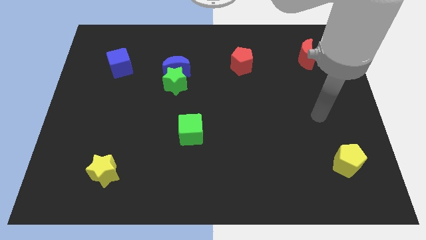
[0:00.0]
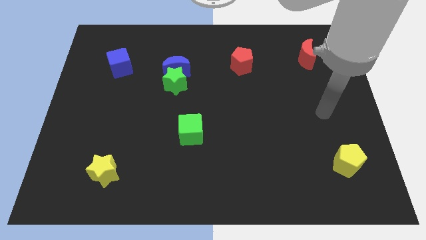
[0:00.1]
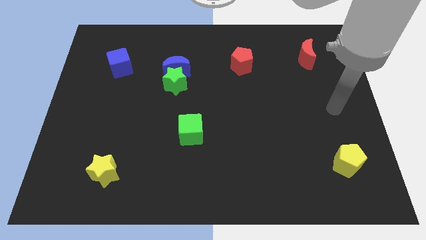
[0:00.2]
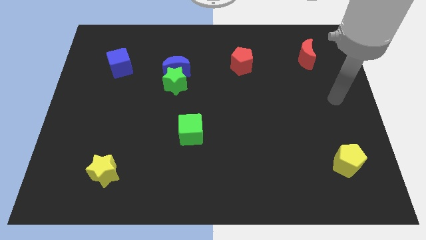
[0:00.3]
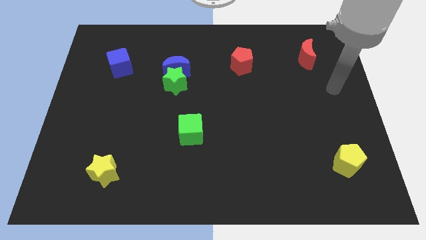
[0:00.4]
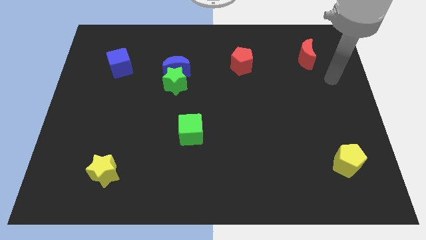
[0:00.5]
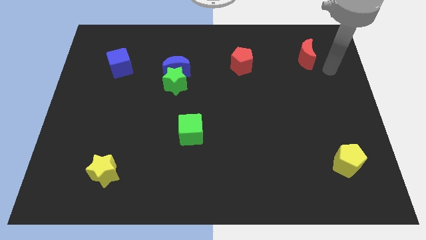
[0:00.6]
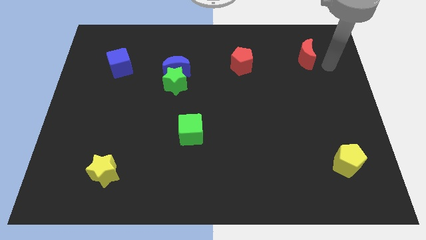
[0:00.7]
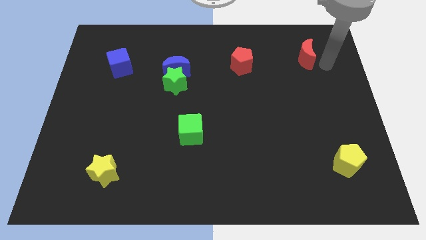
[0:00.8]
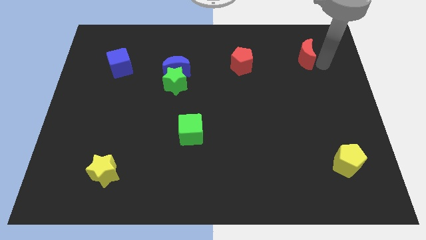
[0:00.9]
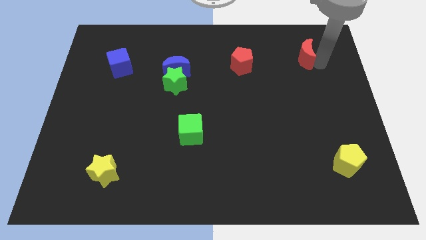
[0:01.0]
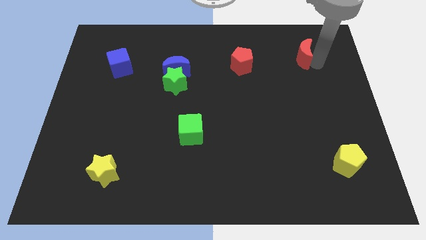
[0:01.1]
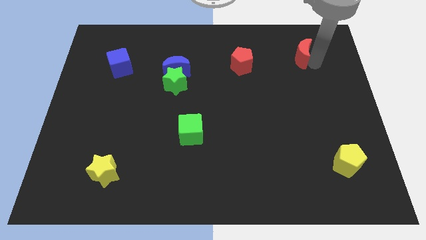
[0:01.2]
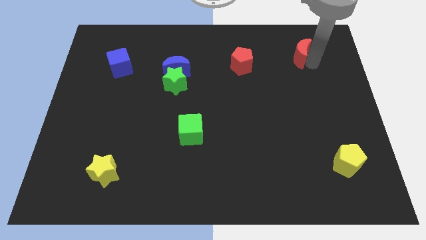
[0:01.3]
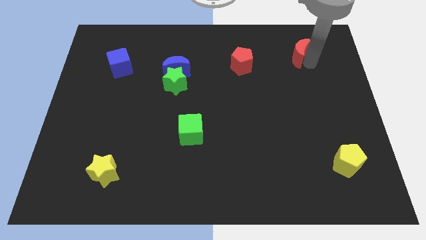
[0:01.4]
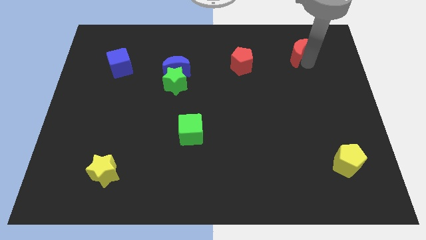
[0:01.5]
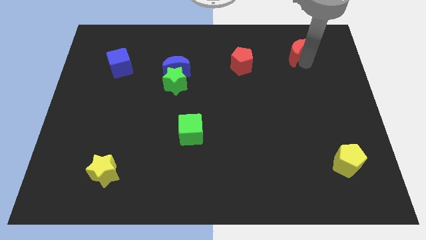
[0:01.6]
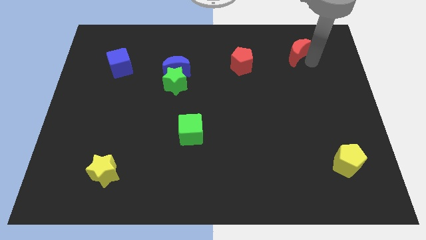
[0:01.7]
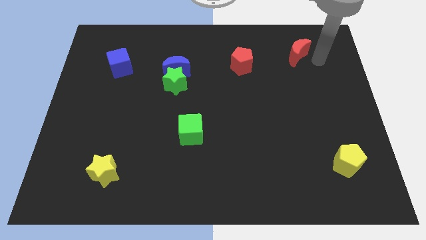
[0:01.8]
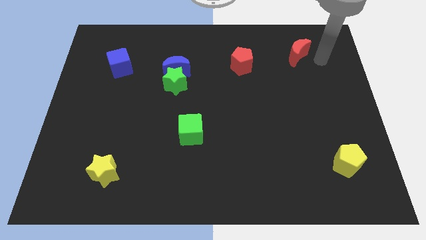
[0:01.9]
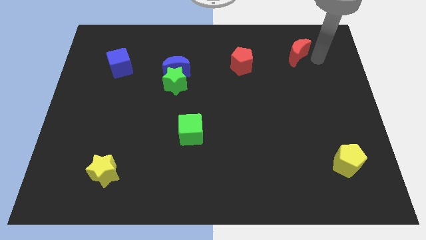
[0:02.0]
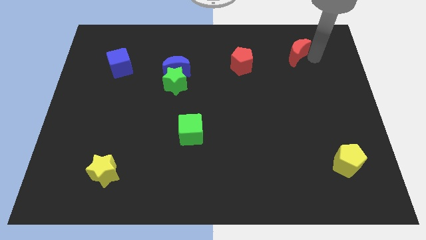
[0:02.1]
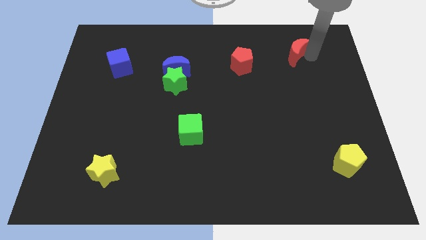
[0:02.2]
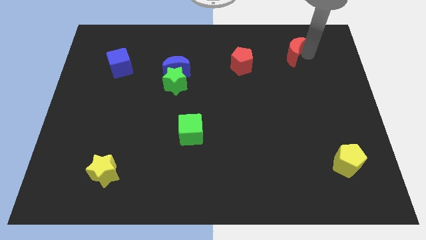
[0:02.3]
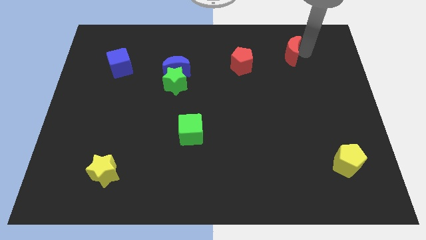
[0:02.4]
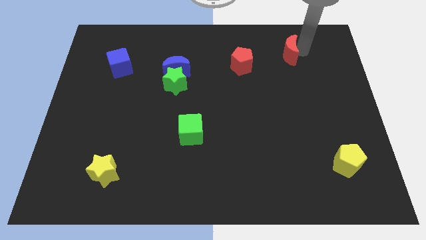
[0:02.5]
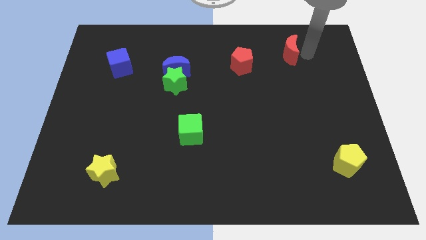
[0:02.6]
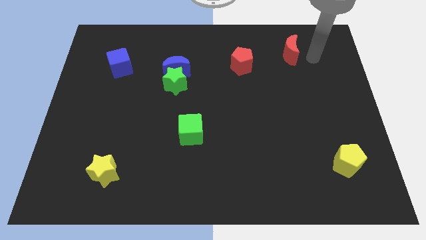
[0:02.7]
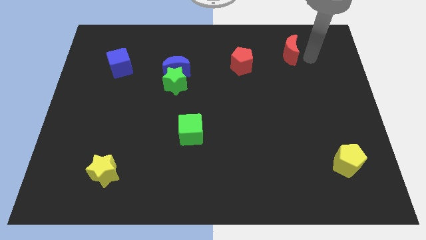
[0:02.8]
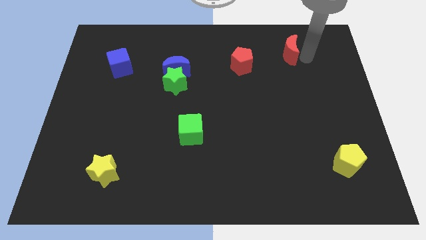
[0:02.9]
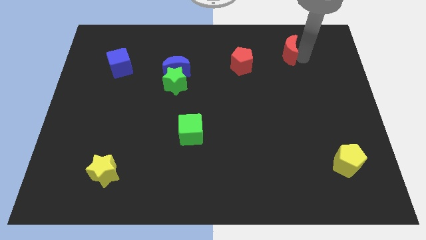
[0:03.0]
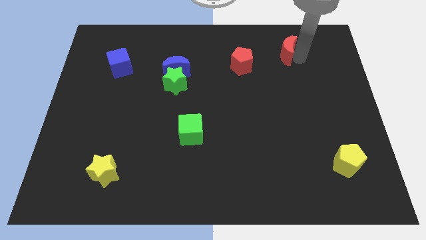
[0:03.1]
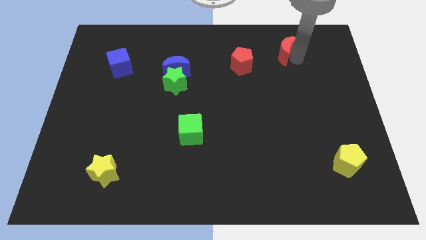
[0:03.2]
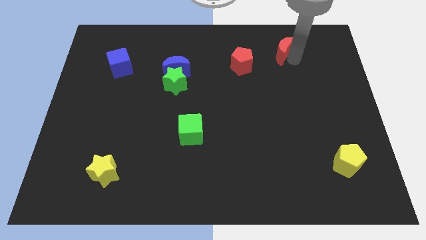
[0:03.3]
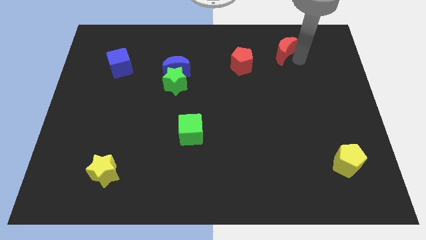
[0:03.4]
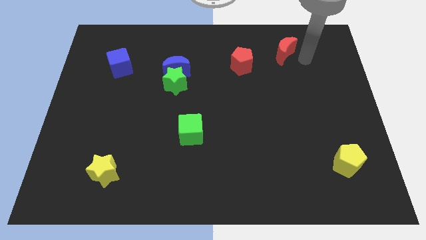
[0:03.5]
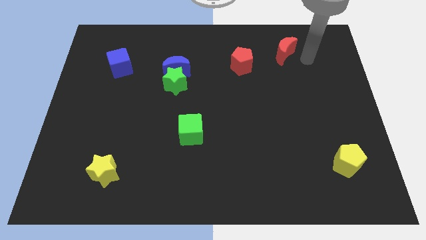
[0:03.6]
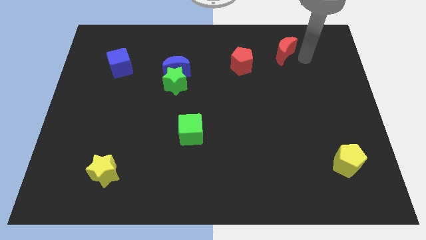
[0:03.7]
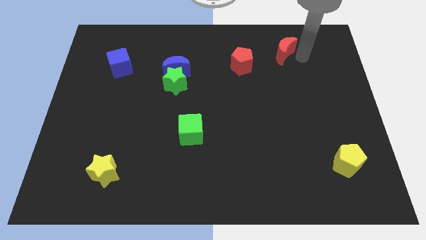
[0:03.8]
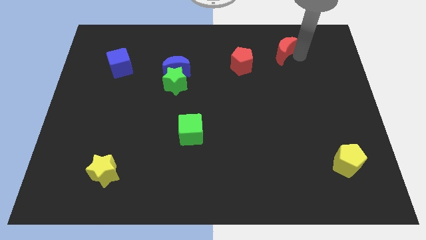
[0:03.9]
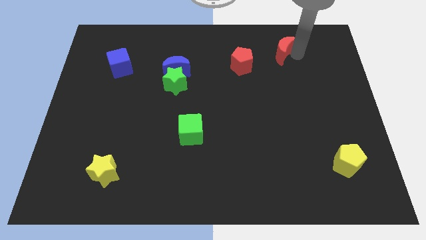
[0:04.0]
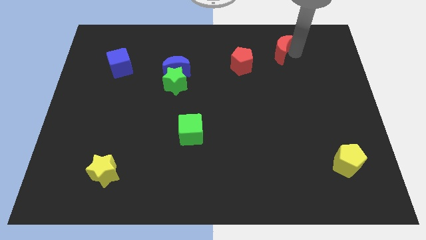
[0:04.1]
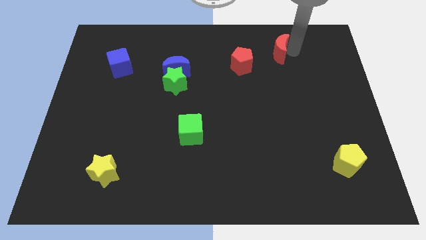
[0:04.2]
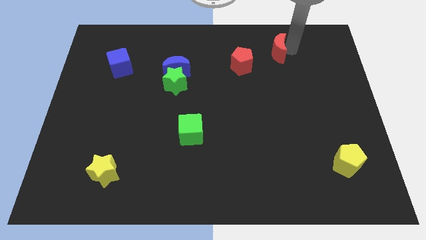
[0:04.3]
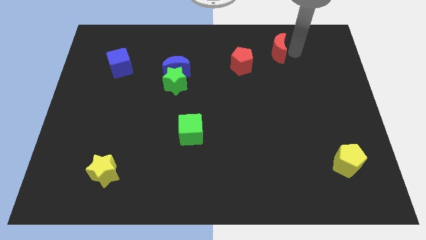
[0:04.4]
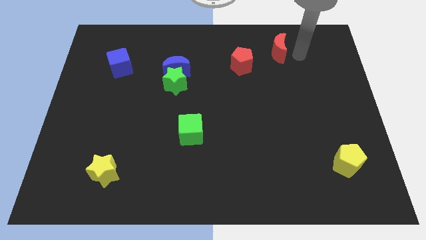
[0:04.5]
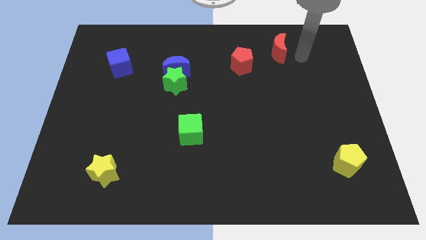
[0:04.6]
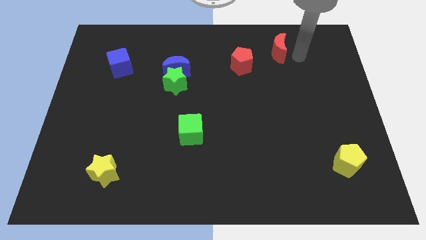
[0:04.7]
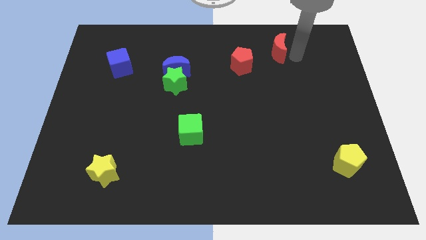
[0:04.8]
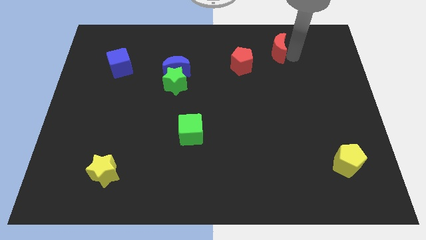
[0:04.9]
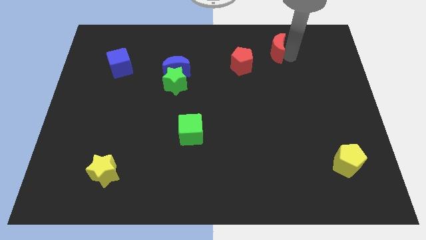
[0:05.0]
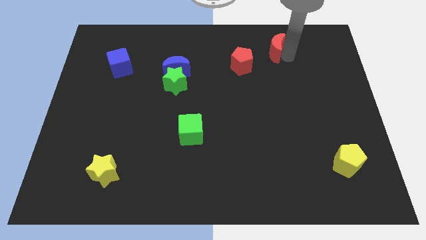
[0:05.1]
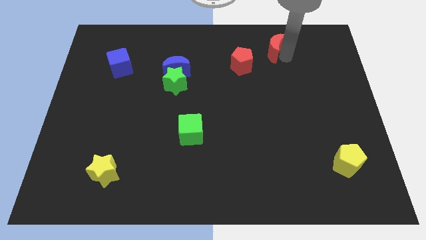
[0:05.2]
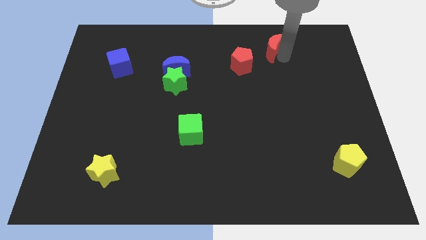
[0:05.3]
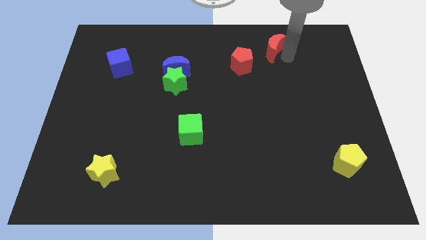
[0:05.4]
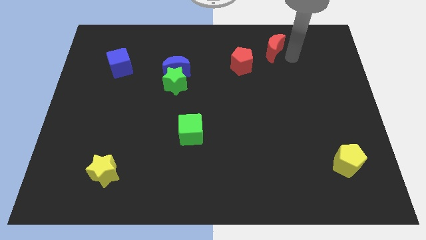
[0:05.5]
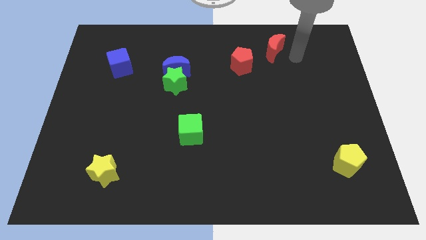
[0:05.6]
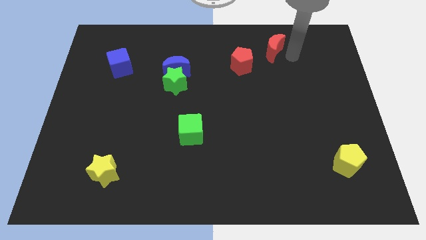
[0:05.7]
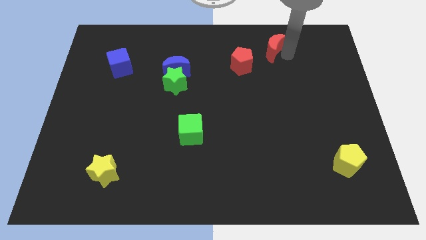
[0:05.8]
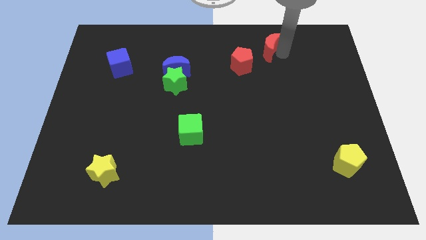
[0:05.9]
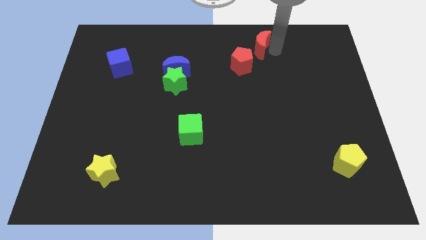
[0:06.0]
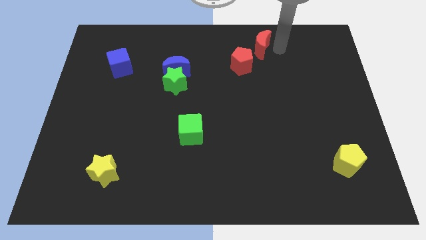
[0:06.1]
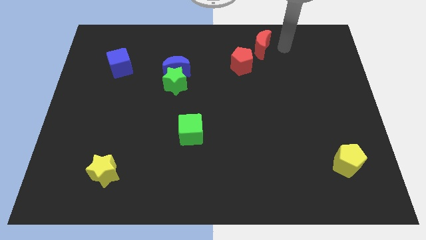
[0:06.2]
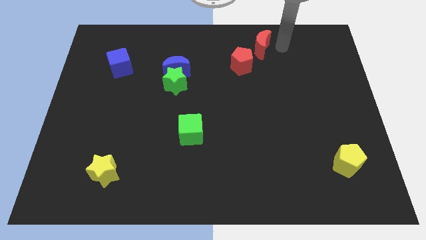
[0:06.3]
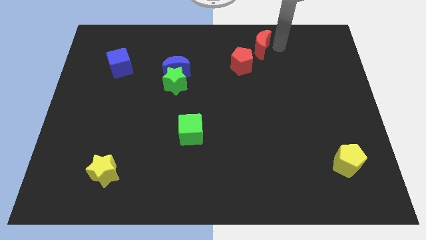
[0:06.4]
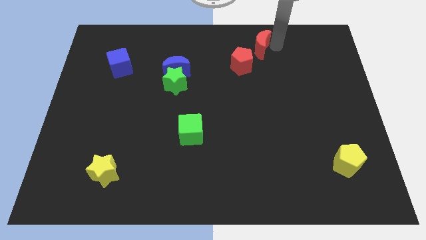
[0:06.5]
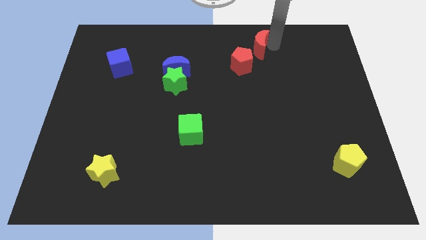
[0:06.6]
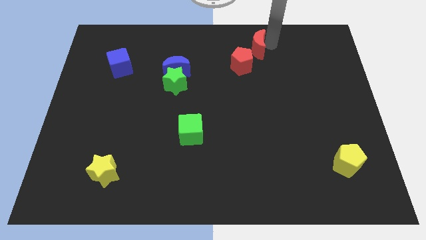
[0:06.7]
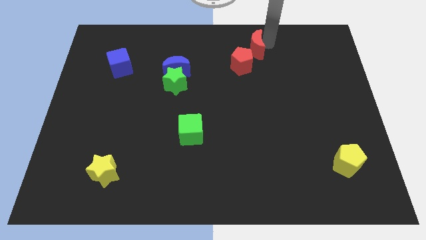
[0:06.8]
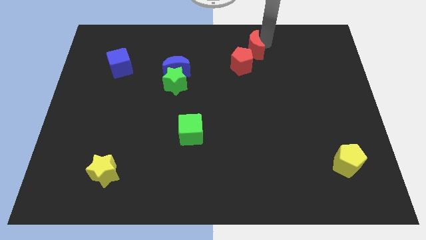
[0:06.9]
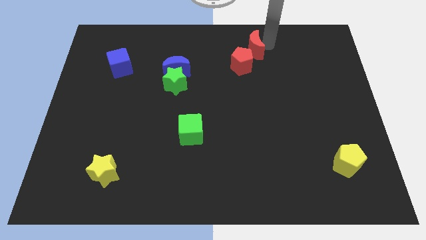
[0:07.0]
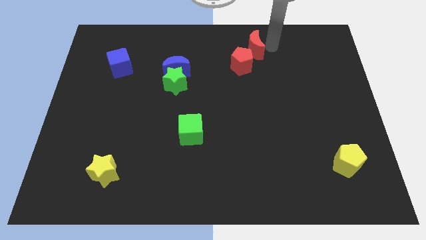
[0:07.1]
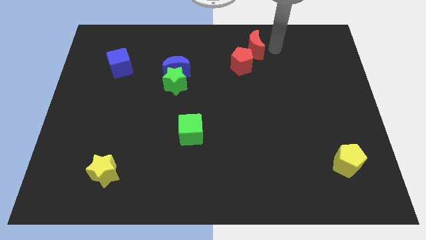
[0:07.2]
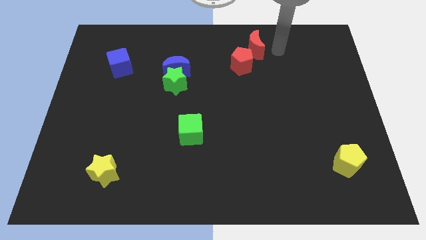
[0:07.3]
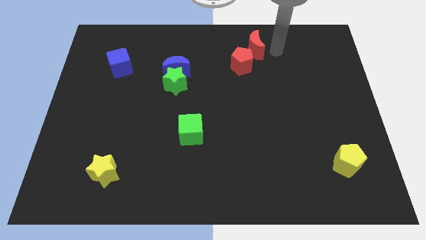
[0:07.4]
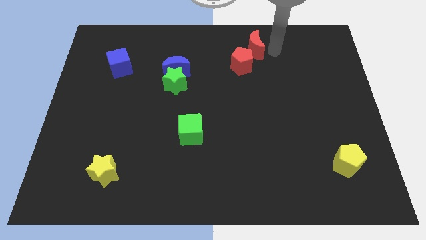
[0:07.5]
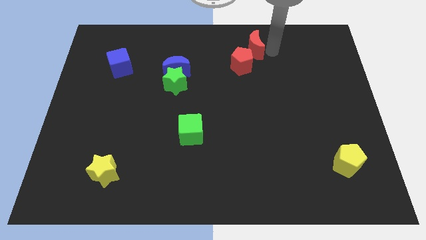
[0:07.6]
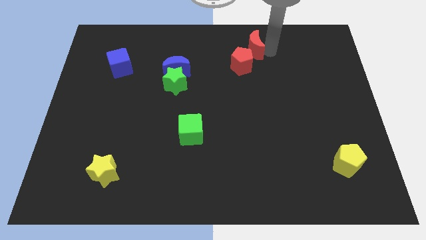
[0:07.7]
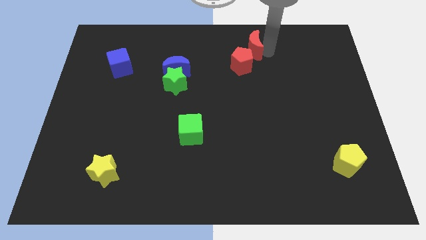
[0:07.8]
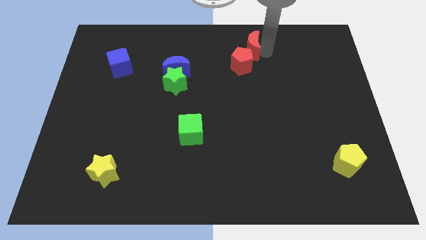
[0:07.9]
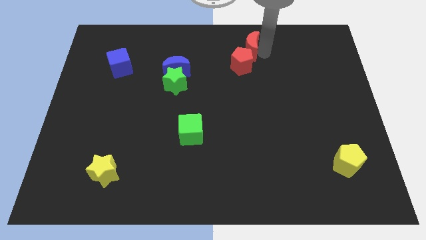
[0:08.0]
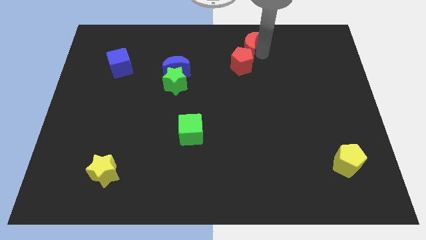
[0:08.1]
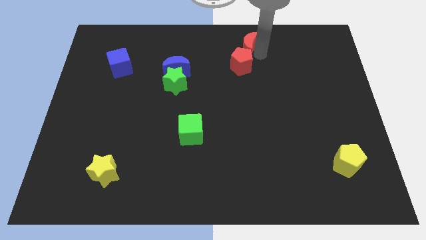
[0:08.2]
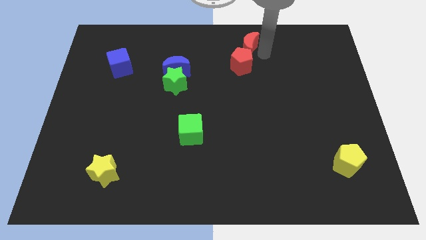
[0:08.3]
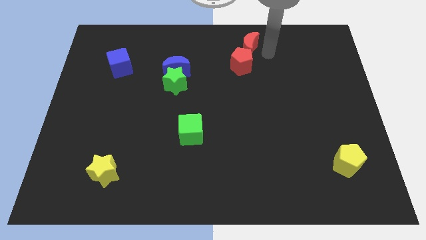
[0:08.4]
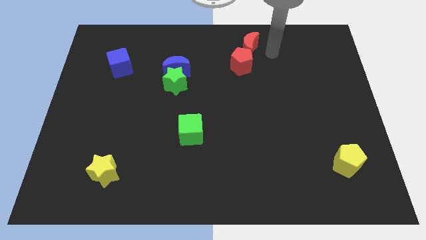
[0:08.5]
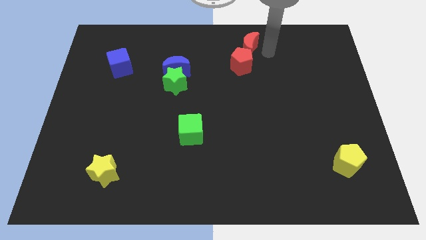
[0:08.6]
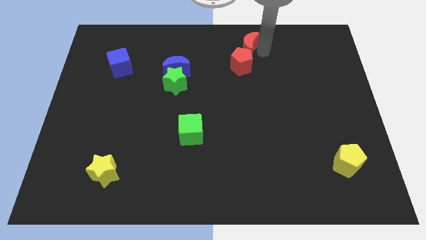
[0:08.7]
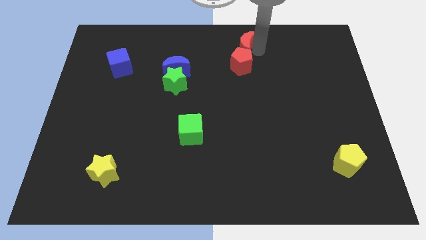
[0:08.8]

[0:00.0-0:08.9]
slide the red moon to the towards your base
